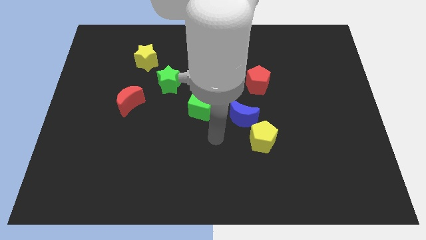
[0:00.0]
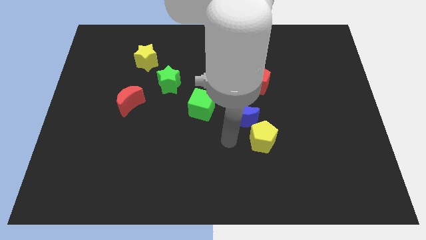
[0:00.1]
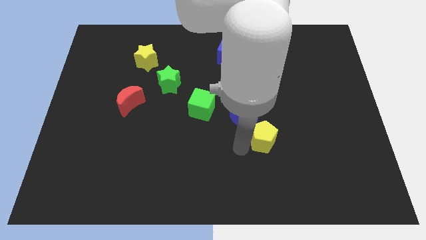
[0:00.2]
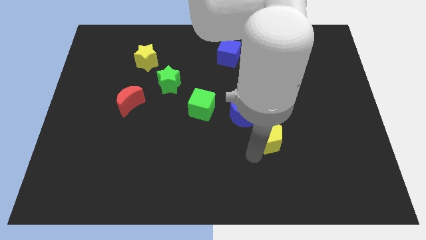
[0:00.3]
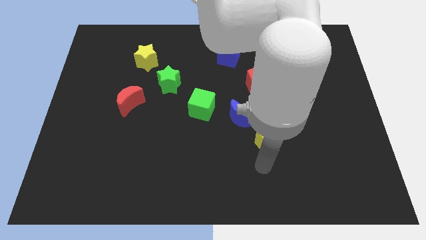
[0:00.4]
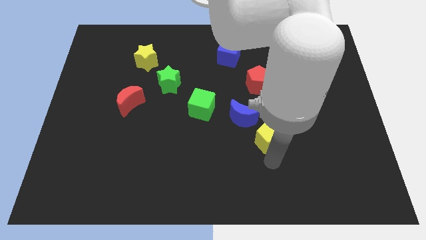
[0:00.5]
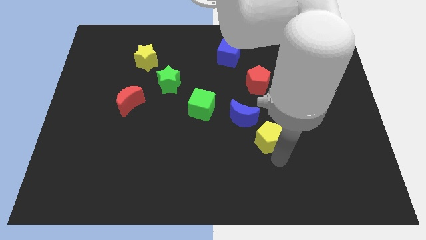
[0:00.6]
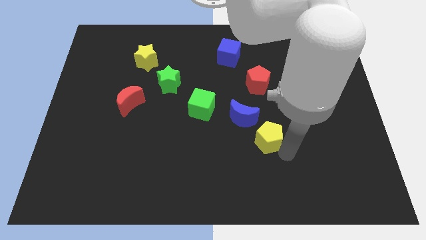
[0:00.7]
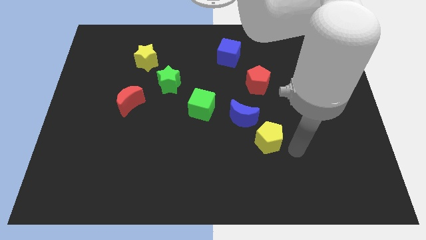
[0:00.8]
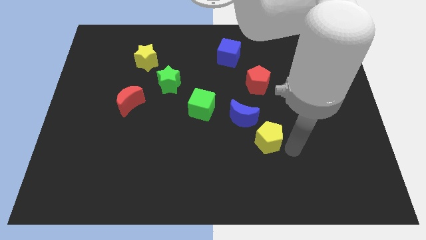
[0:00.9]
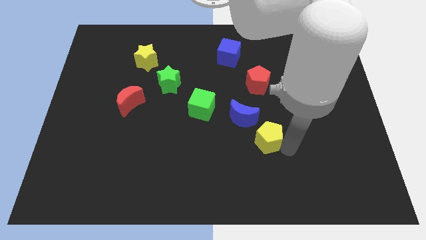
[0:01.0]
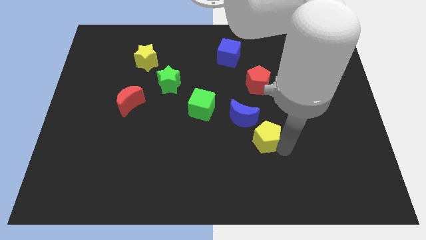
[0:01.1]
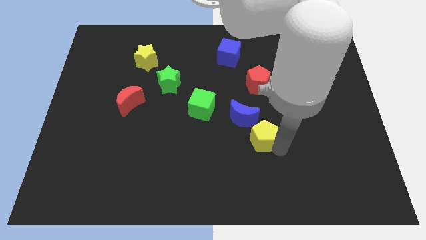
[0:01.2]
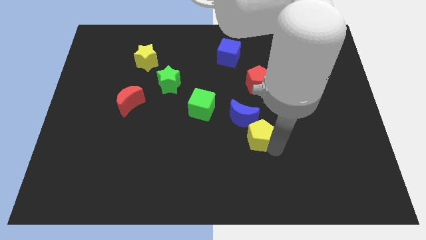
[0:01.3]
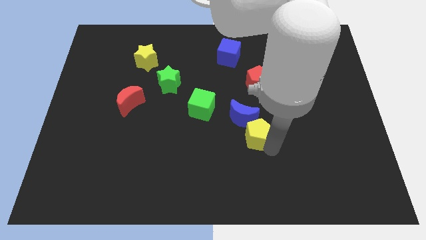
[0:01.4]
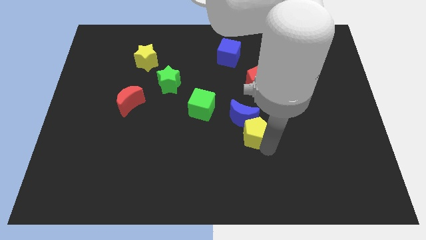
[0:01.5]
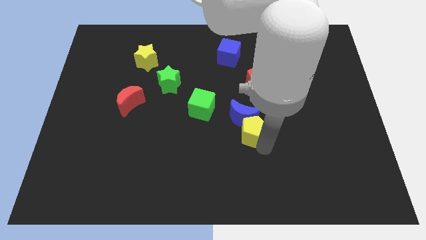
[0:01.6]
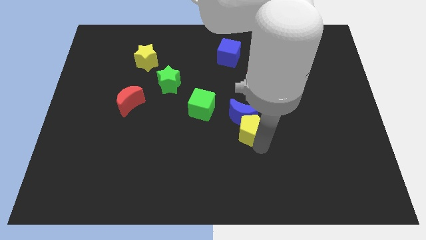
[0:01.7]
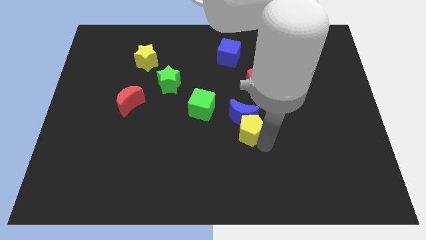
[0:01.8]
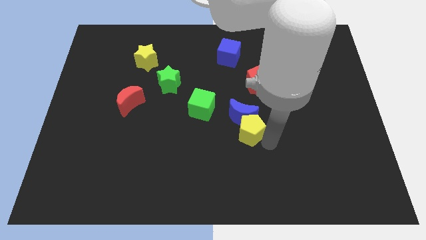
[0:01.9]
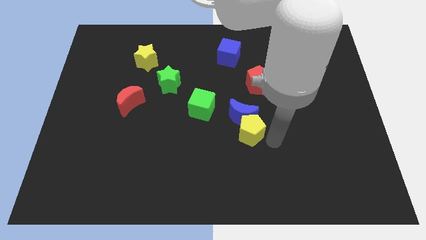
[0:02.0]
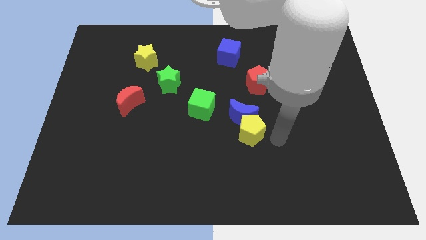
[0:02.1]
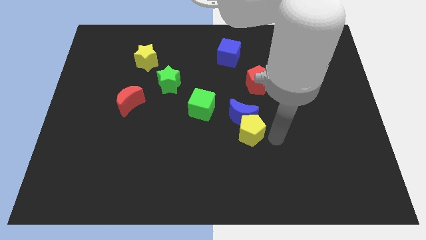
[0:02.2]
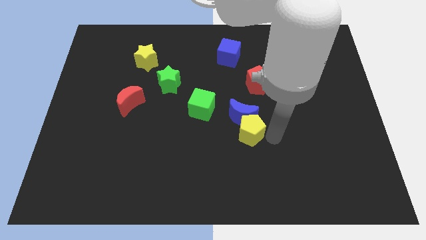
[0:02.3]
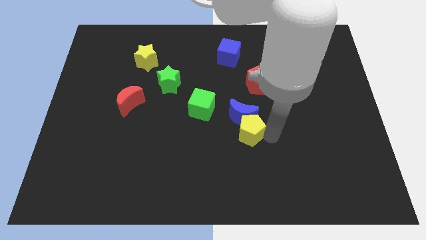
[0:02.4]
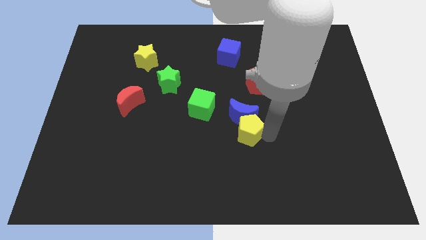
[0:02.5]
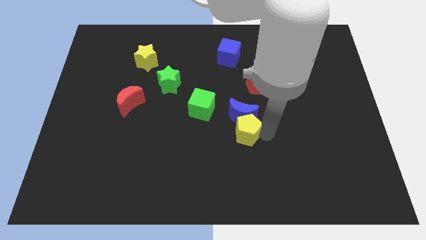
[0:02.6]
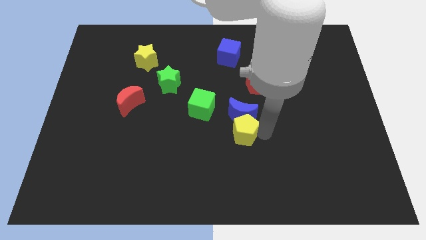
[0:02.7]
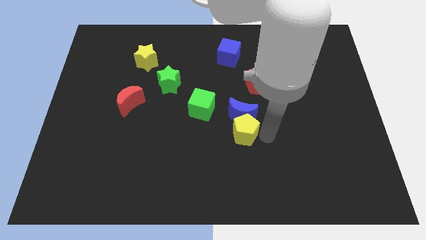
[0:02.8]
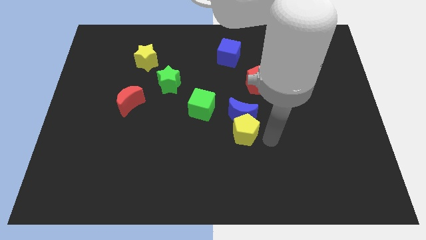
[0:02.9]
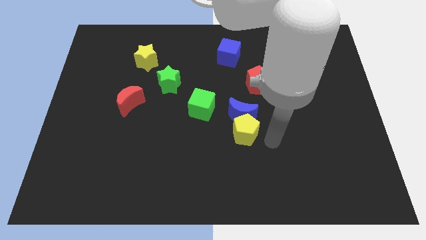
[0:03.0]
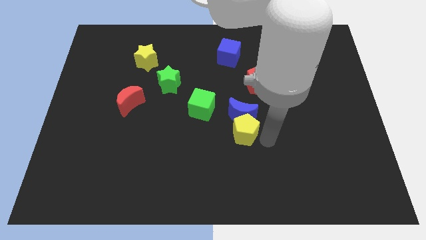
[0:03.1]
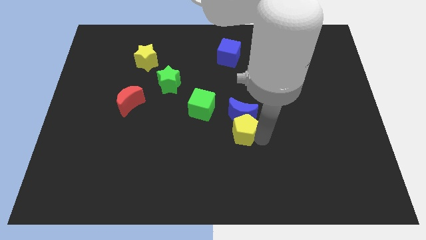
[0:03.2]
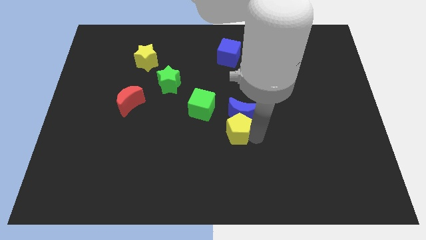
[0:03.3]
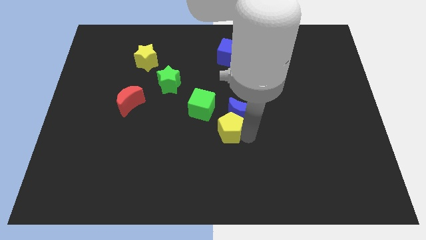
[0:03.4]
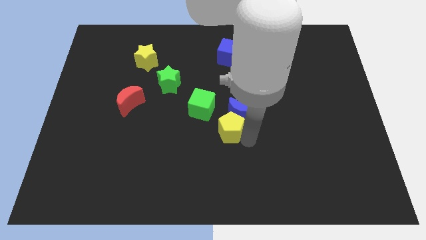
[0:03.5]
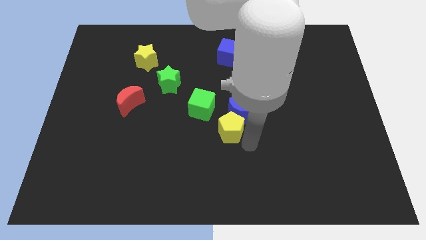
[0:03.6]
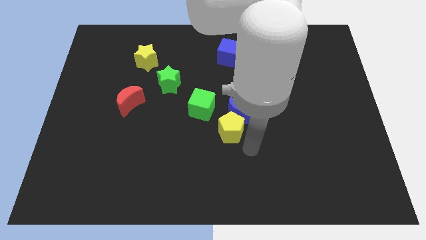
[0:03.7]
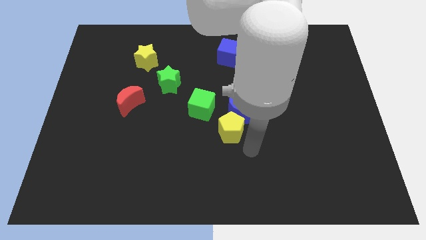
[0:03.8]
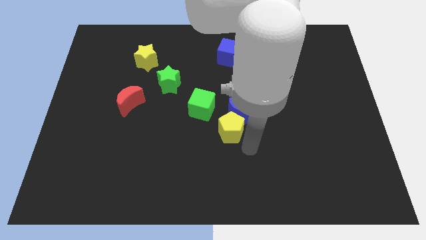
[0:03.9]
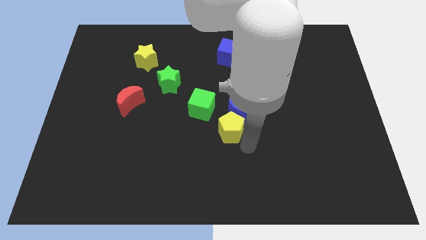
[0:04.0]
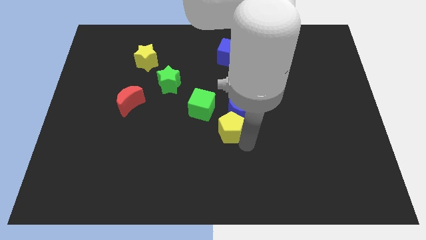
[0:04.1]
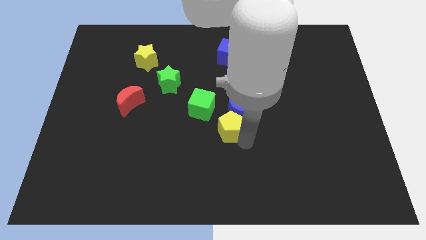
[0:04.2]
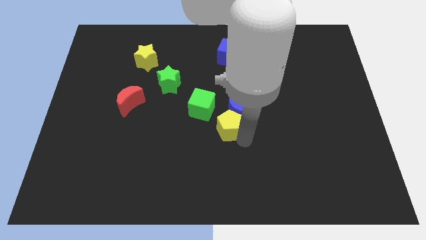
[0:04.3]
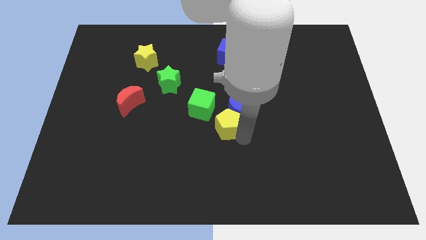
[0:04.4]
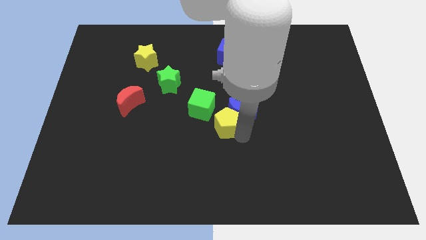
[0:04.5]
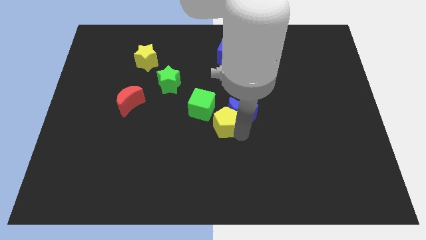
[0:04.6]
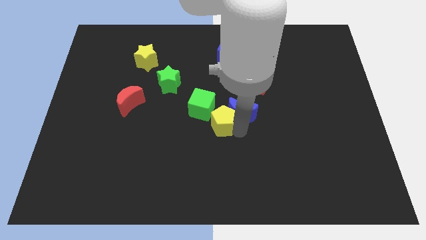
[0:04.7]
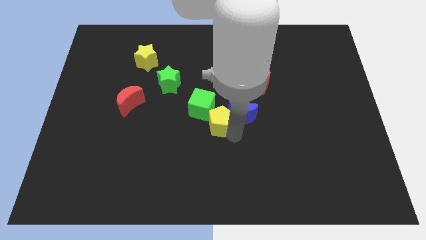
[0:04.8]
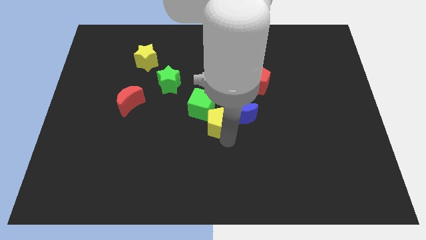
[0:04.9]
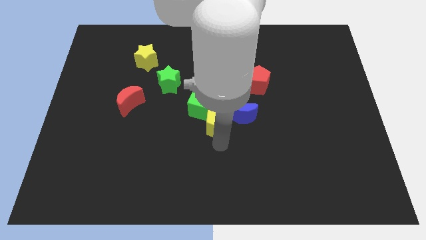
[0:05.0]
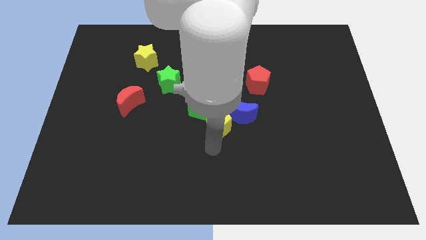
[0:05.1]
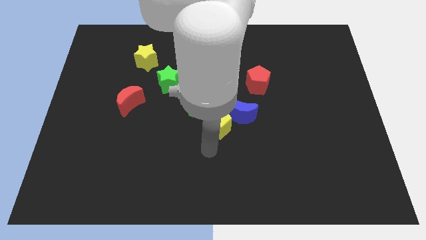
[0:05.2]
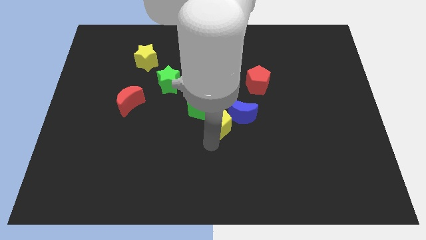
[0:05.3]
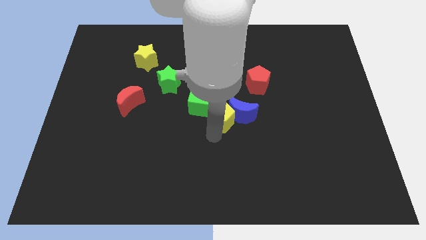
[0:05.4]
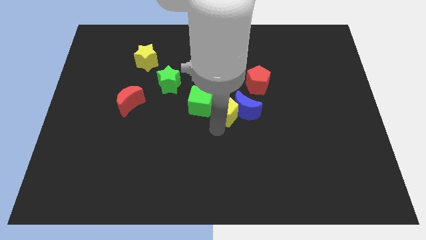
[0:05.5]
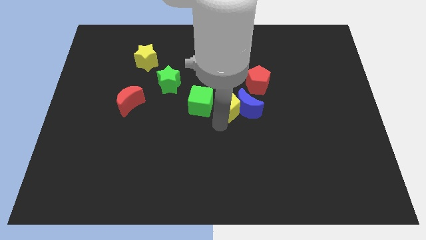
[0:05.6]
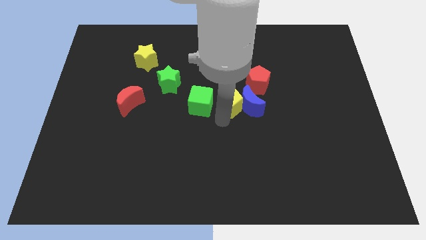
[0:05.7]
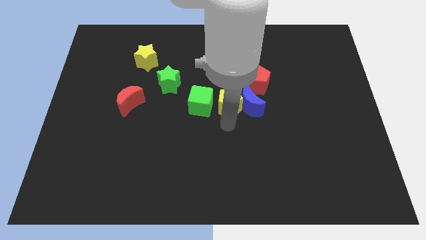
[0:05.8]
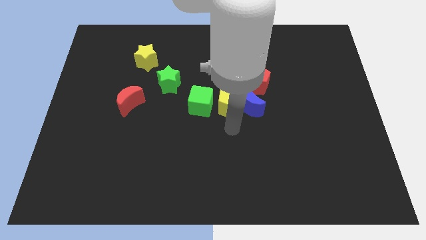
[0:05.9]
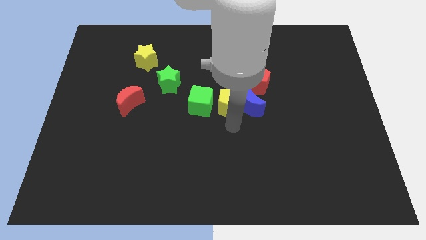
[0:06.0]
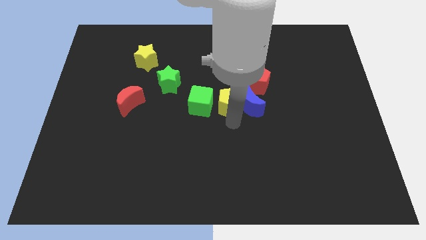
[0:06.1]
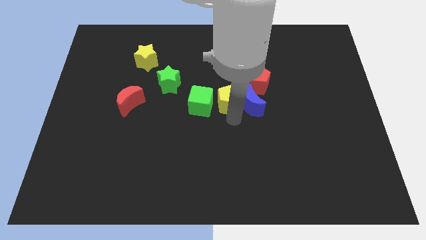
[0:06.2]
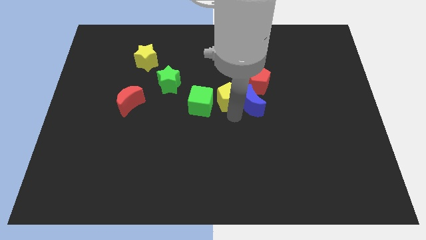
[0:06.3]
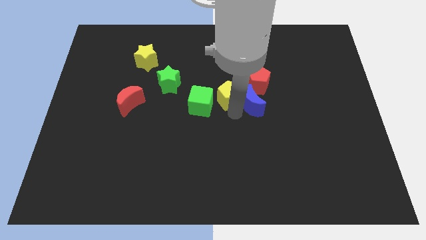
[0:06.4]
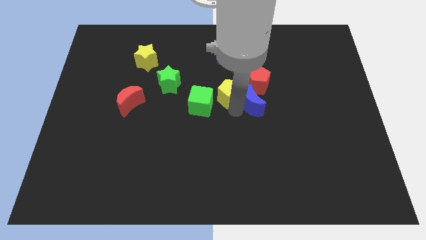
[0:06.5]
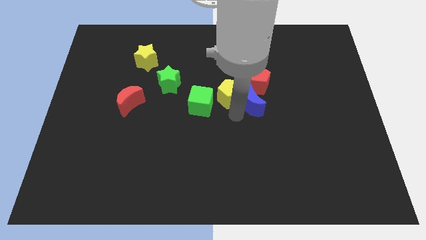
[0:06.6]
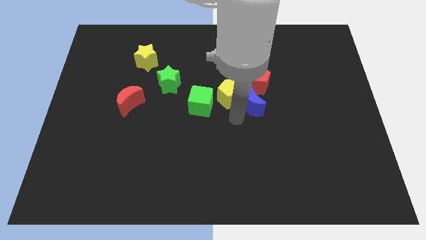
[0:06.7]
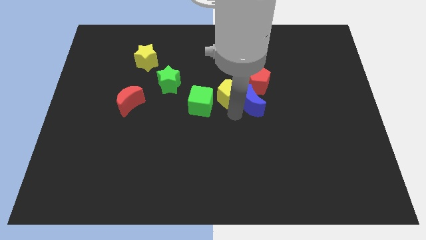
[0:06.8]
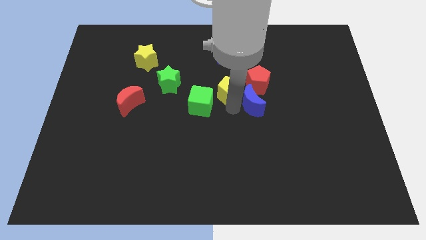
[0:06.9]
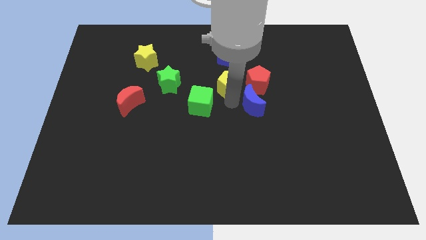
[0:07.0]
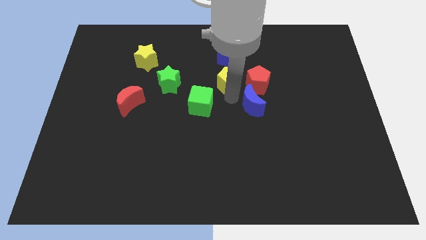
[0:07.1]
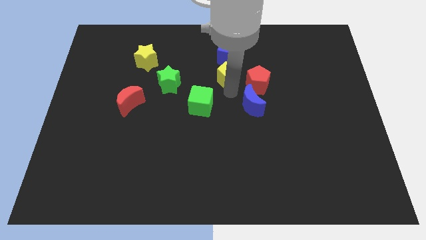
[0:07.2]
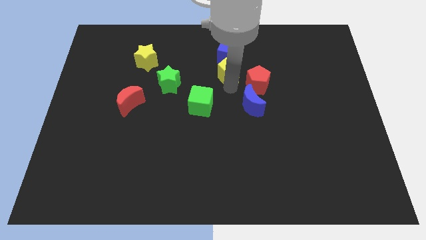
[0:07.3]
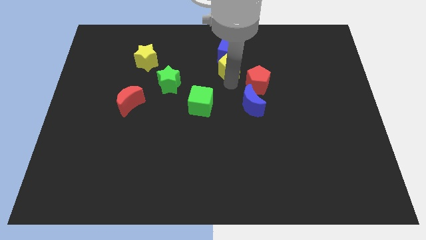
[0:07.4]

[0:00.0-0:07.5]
slide the yellow pentagon towards the blue cube

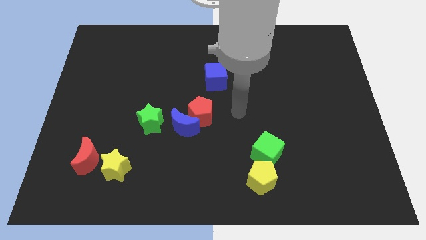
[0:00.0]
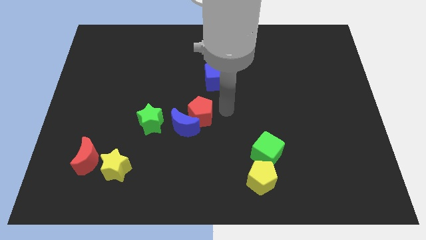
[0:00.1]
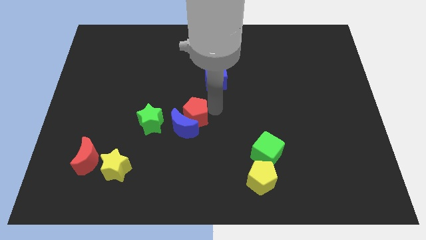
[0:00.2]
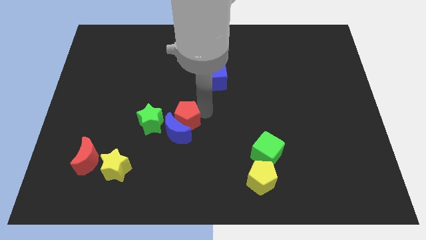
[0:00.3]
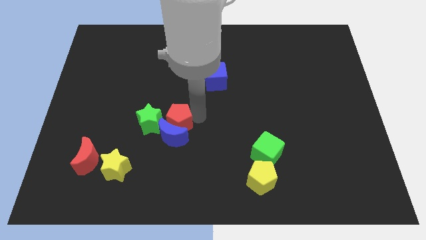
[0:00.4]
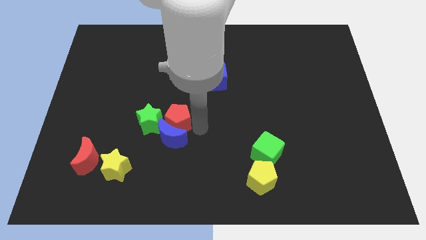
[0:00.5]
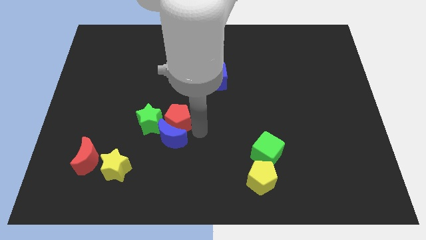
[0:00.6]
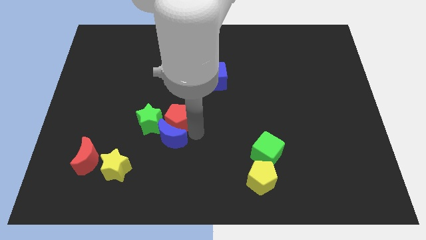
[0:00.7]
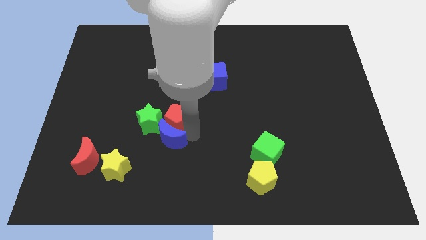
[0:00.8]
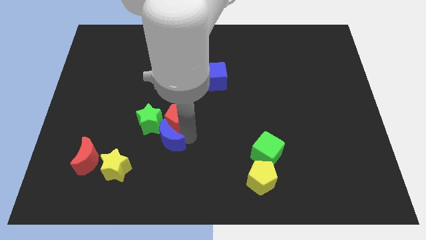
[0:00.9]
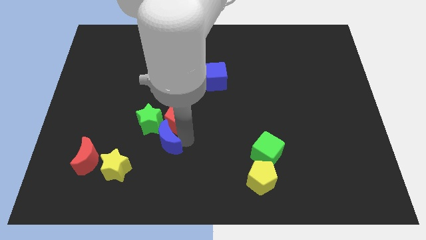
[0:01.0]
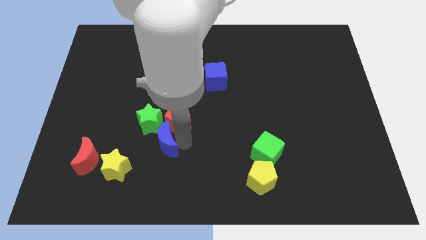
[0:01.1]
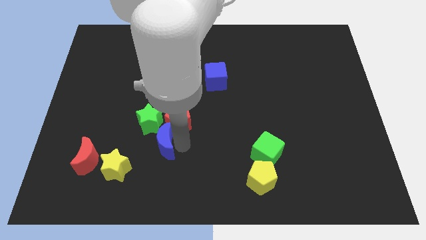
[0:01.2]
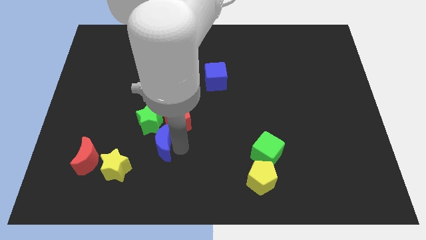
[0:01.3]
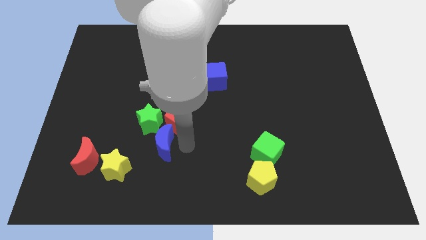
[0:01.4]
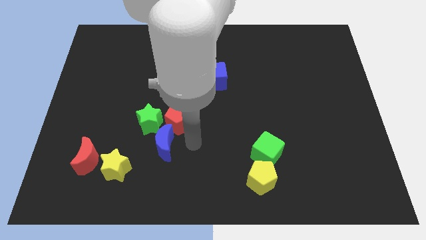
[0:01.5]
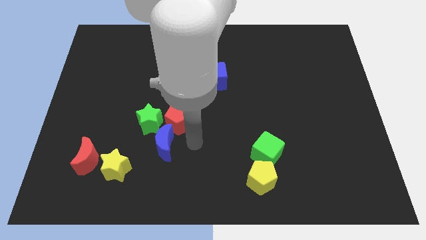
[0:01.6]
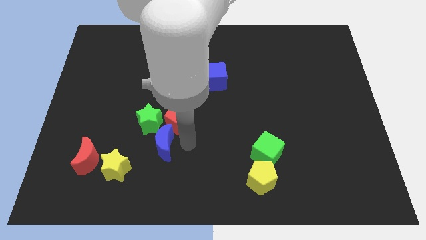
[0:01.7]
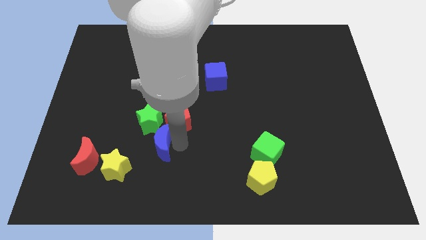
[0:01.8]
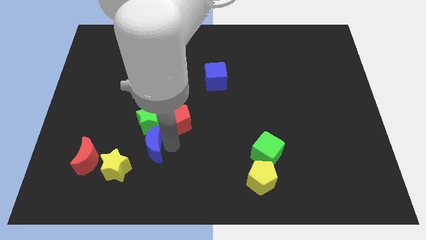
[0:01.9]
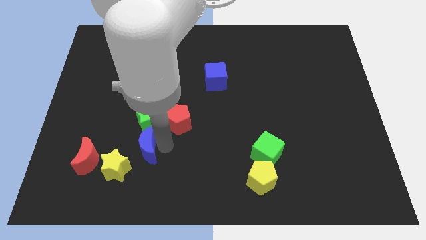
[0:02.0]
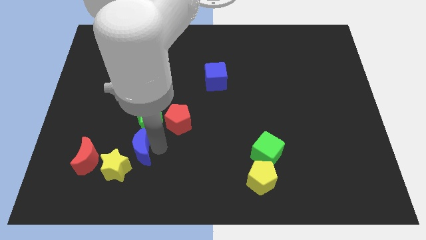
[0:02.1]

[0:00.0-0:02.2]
slide the blue moon towards the yellow star
